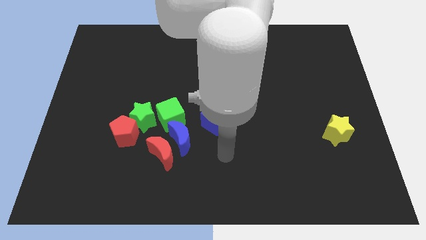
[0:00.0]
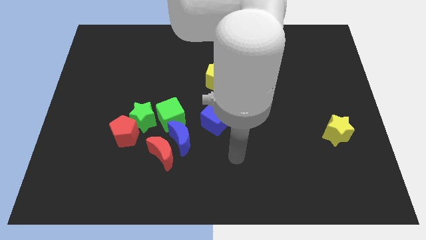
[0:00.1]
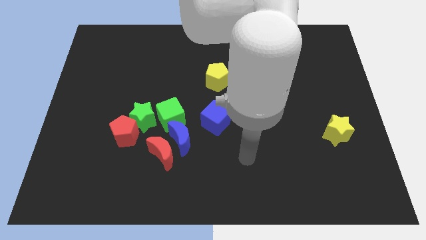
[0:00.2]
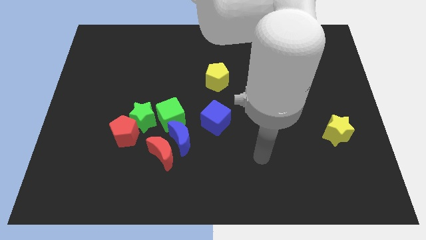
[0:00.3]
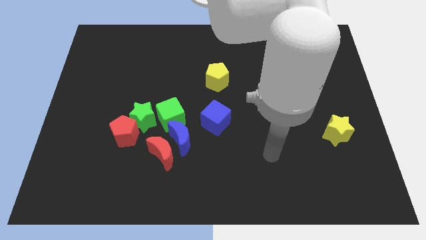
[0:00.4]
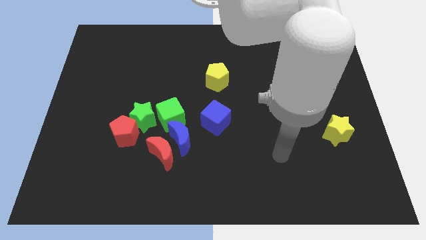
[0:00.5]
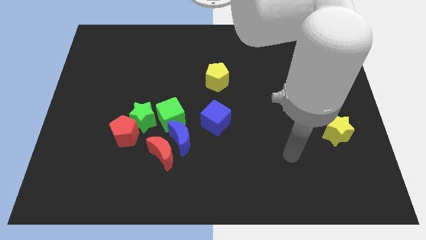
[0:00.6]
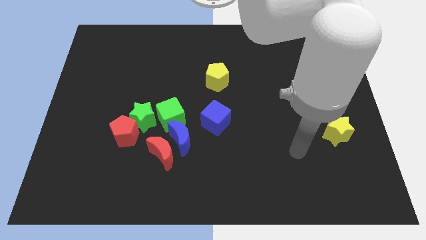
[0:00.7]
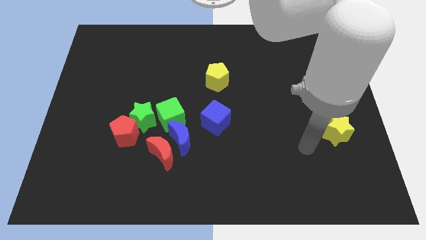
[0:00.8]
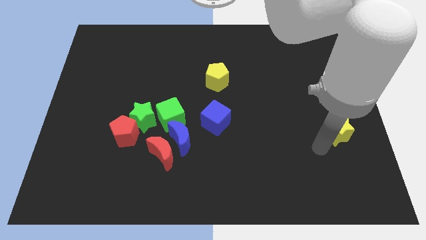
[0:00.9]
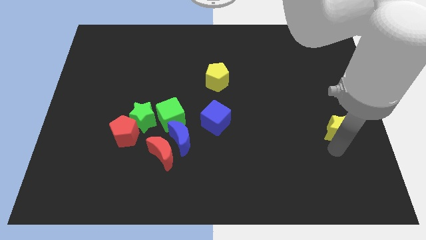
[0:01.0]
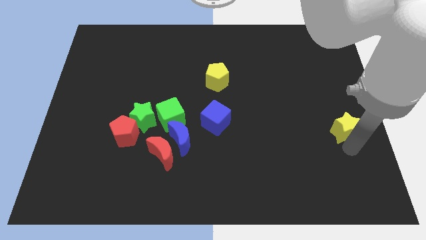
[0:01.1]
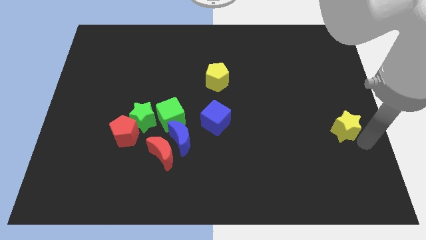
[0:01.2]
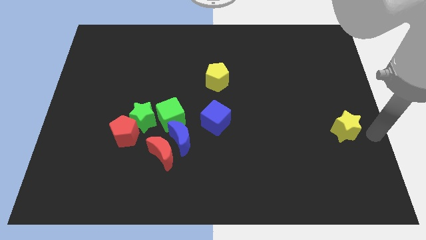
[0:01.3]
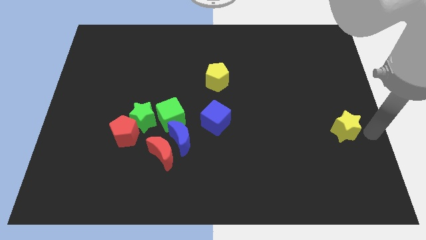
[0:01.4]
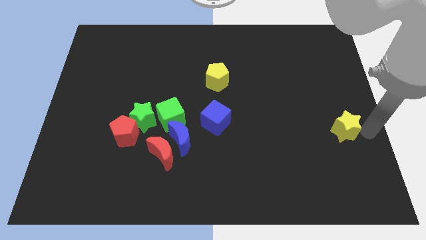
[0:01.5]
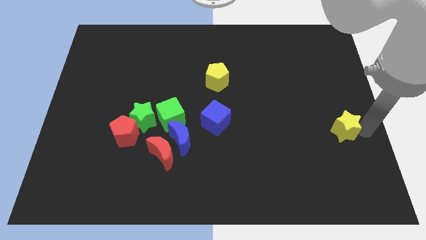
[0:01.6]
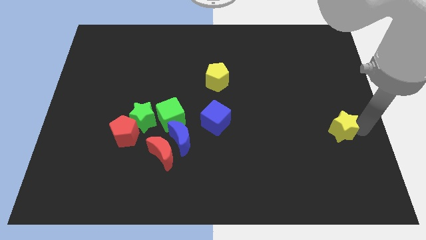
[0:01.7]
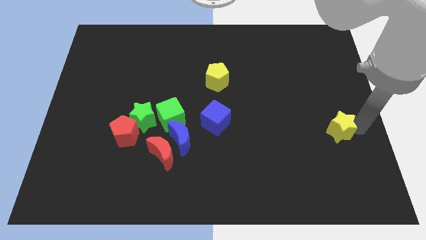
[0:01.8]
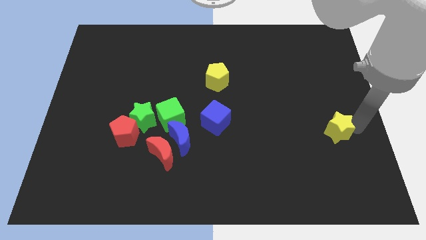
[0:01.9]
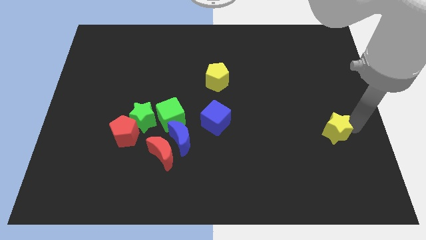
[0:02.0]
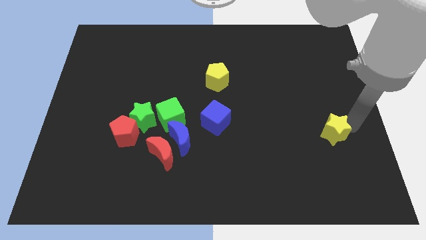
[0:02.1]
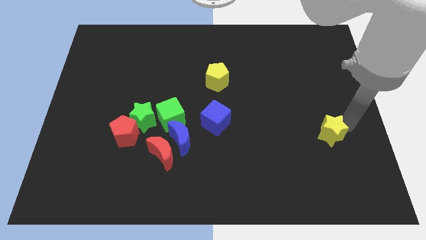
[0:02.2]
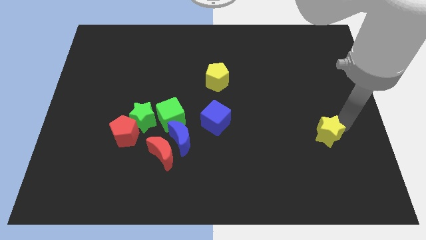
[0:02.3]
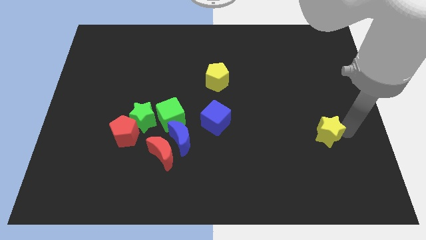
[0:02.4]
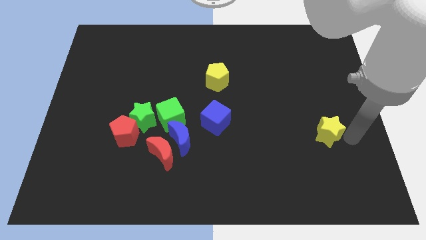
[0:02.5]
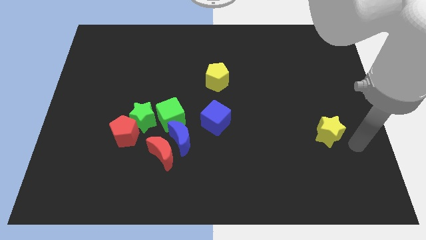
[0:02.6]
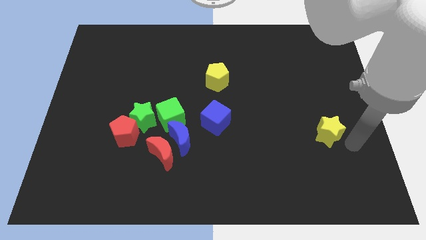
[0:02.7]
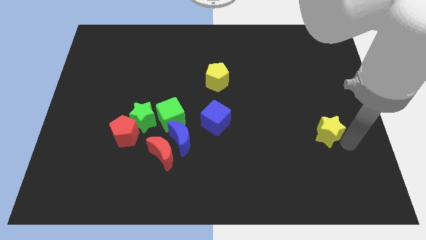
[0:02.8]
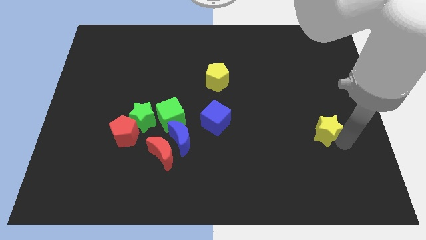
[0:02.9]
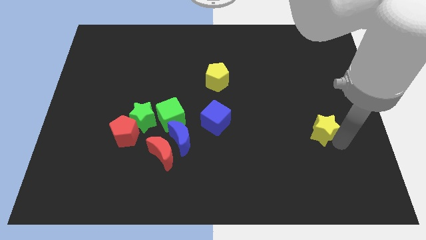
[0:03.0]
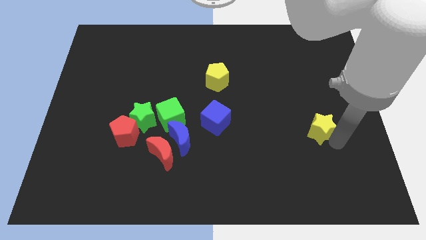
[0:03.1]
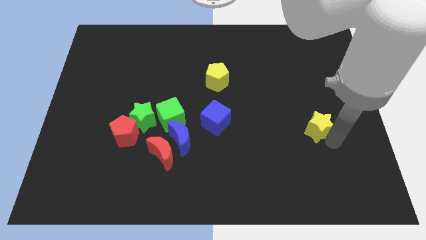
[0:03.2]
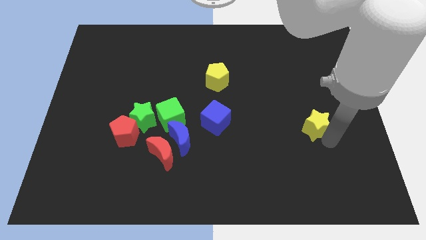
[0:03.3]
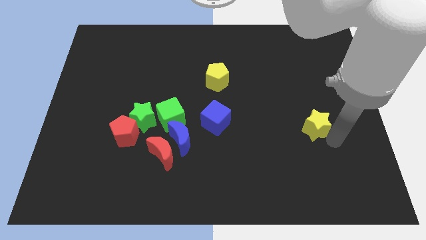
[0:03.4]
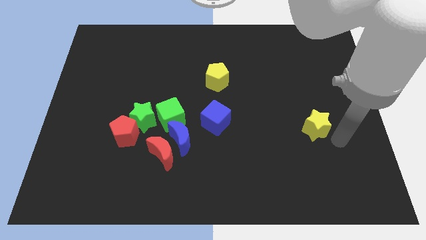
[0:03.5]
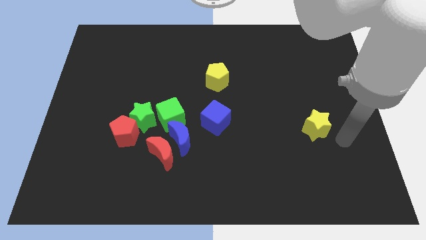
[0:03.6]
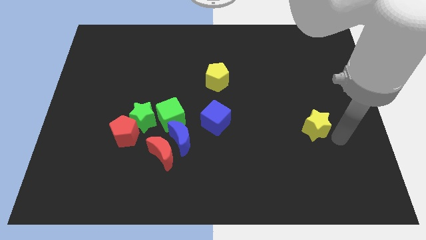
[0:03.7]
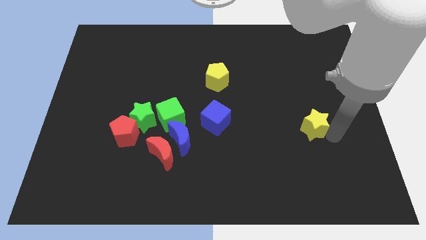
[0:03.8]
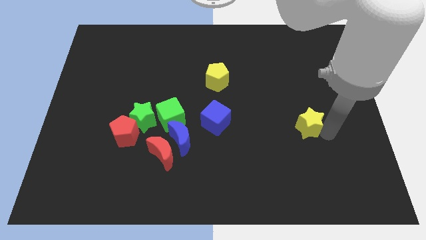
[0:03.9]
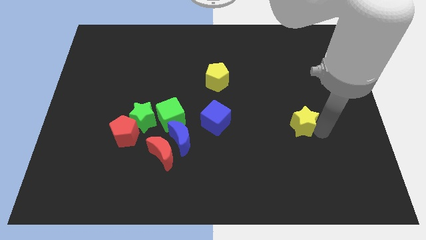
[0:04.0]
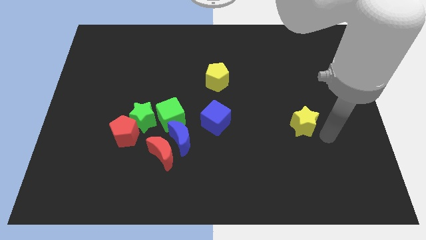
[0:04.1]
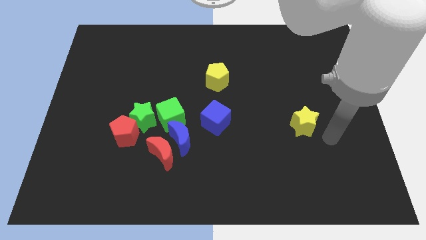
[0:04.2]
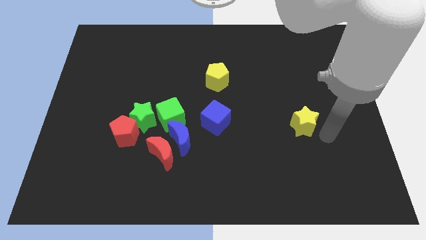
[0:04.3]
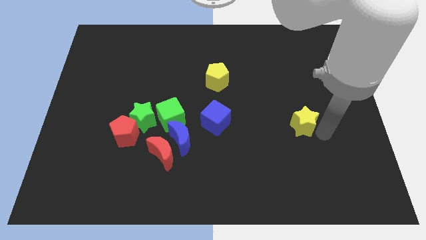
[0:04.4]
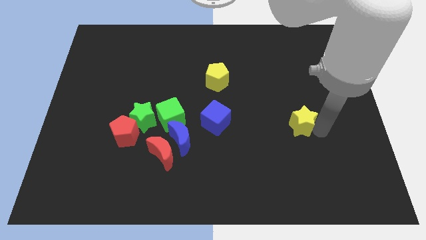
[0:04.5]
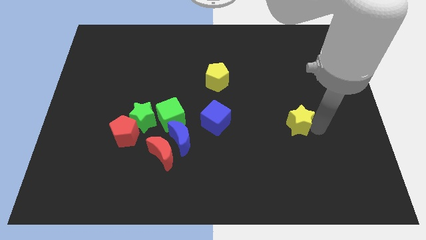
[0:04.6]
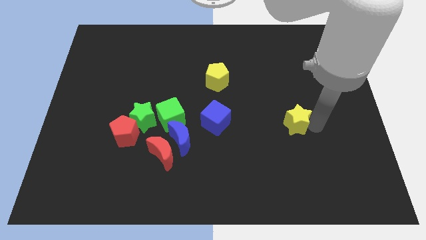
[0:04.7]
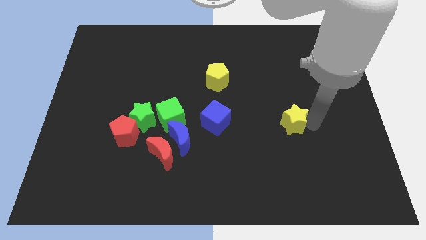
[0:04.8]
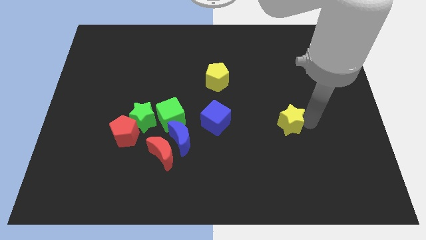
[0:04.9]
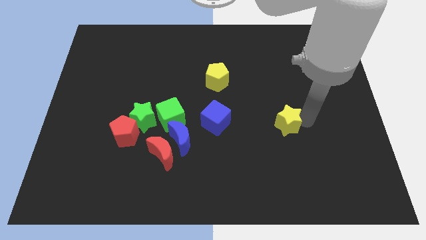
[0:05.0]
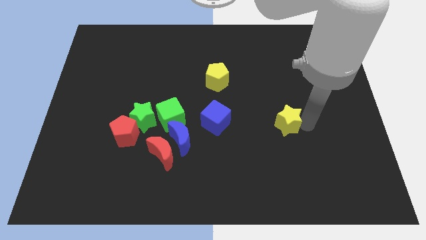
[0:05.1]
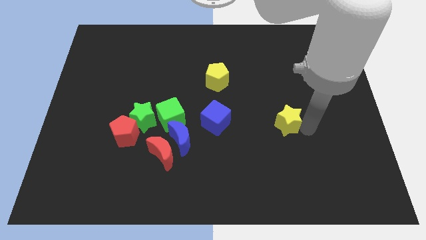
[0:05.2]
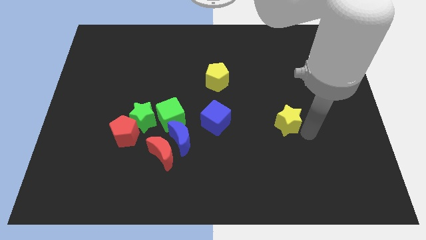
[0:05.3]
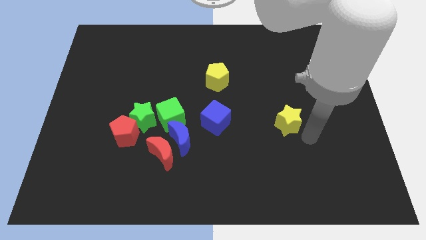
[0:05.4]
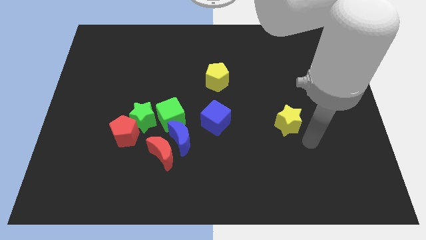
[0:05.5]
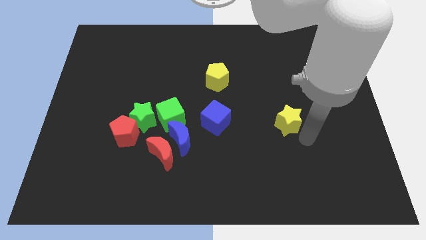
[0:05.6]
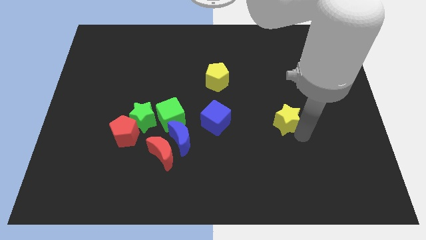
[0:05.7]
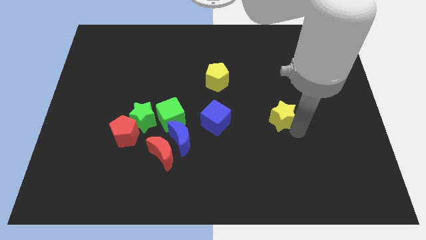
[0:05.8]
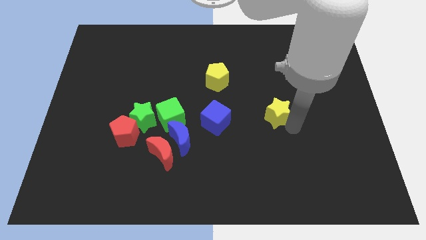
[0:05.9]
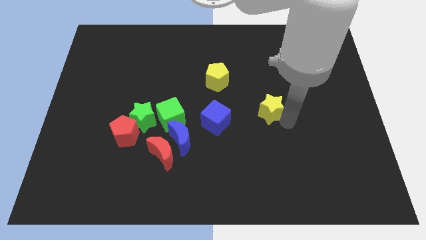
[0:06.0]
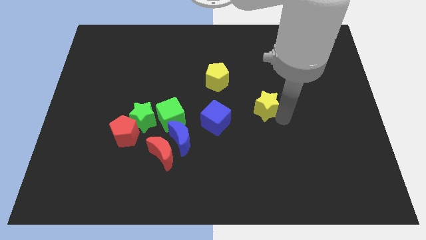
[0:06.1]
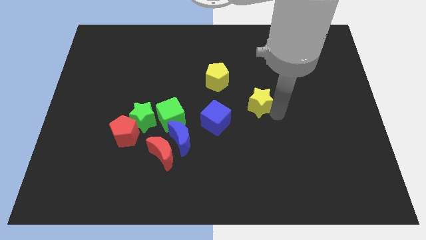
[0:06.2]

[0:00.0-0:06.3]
put the yellow star to the center

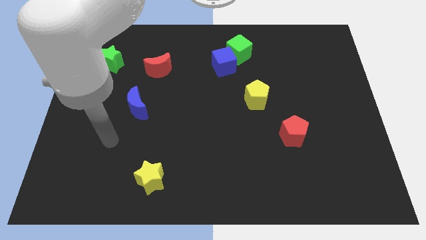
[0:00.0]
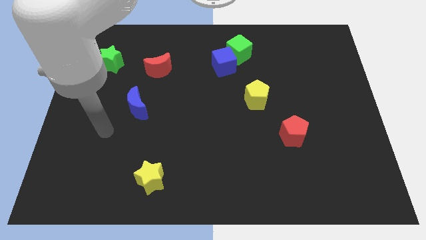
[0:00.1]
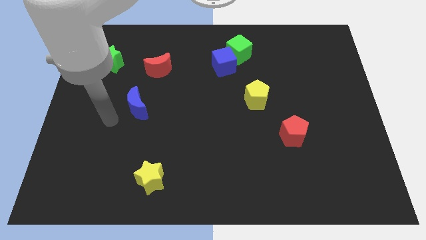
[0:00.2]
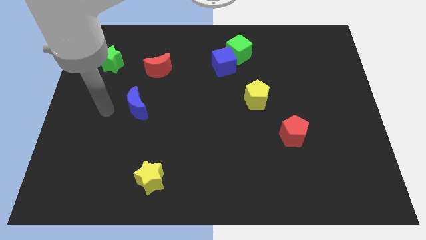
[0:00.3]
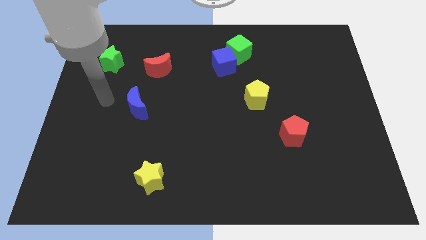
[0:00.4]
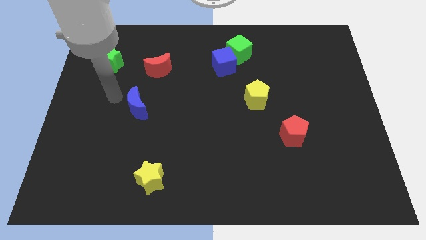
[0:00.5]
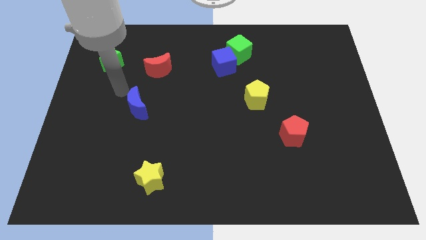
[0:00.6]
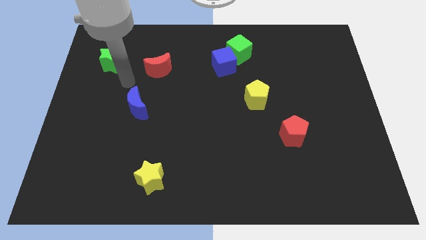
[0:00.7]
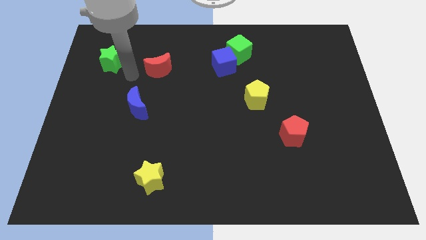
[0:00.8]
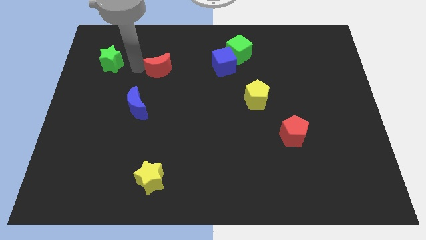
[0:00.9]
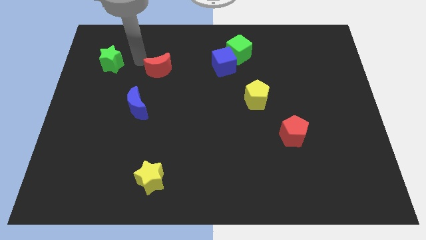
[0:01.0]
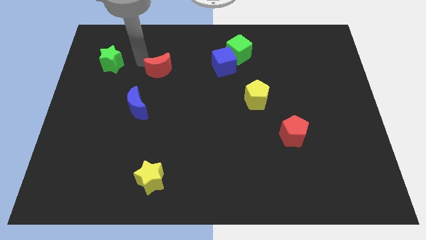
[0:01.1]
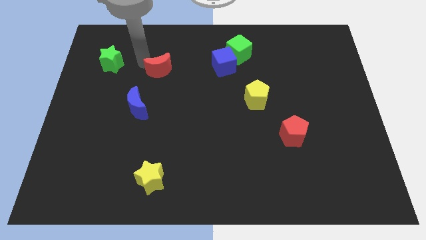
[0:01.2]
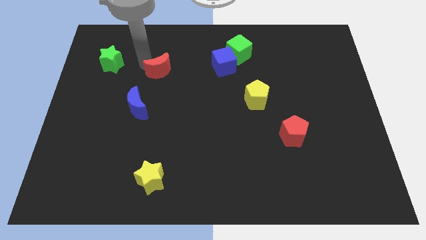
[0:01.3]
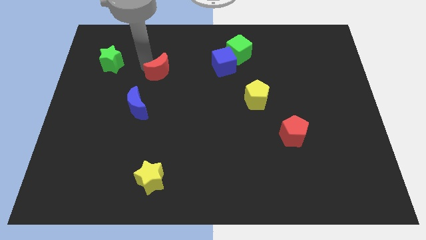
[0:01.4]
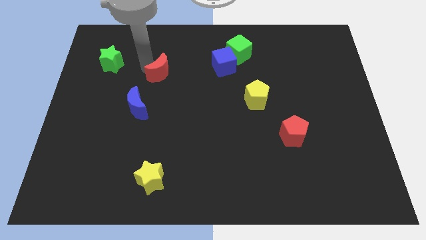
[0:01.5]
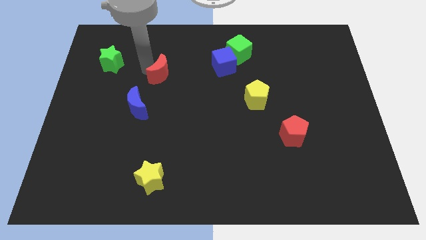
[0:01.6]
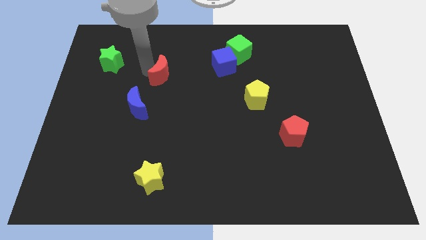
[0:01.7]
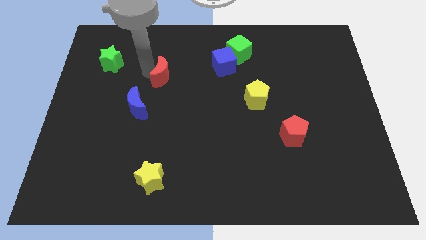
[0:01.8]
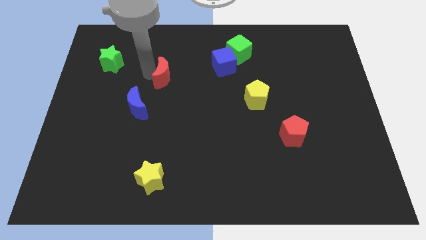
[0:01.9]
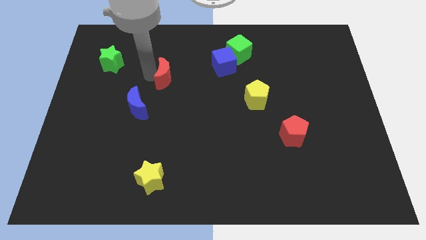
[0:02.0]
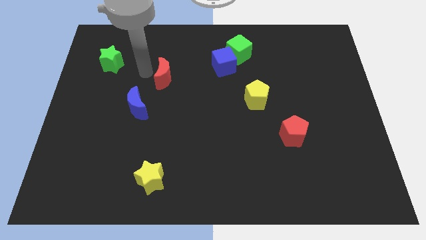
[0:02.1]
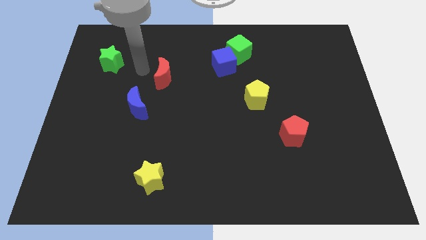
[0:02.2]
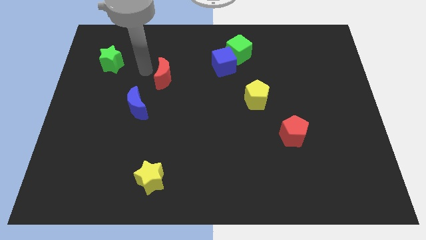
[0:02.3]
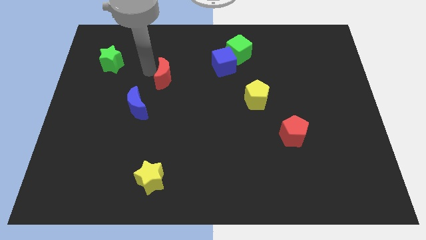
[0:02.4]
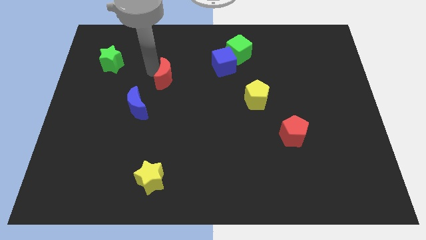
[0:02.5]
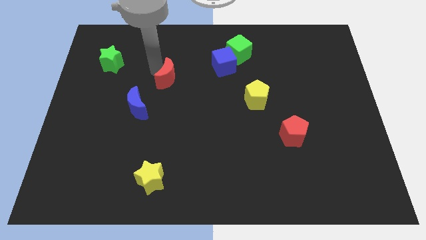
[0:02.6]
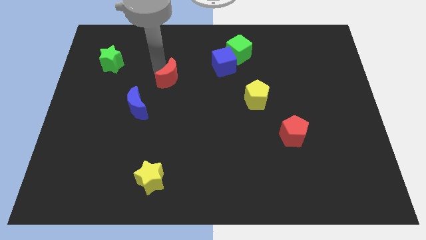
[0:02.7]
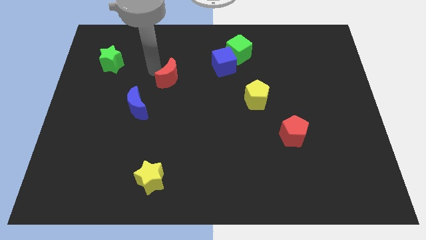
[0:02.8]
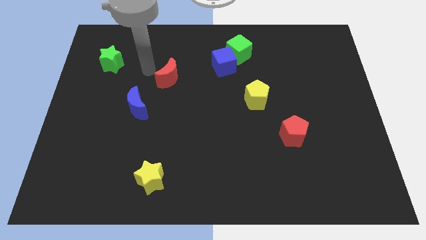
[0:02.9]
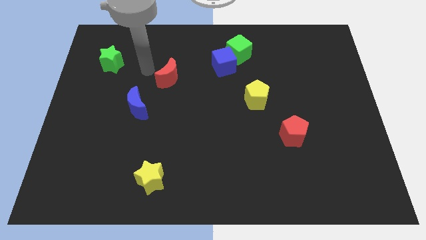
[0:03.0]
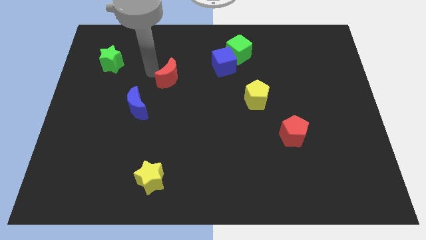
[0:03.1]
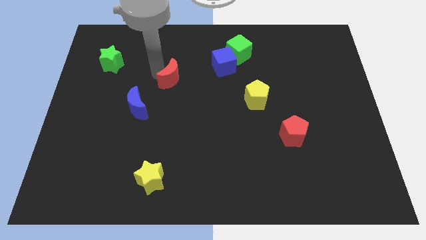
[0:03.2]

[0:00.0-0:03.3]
push the red moon to the middle of the board
